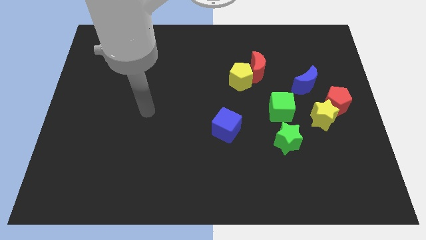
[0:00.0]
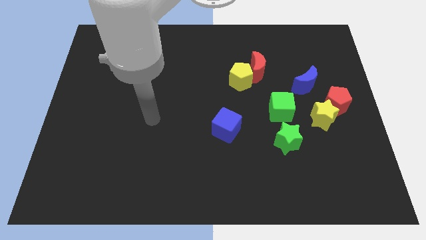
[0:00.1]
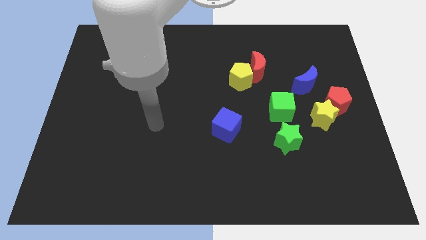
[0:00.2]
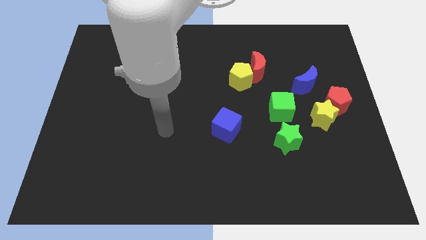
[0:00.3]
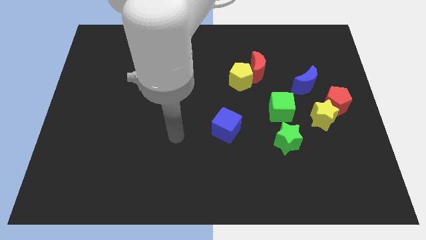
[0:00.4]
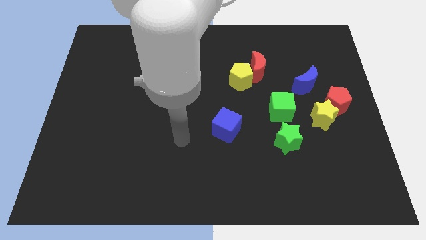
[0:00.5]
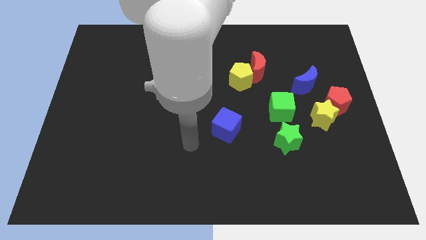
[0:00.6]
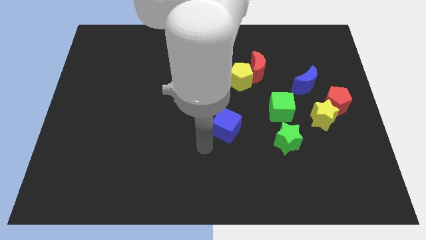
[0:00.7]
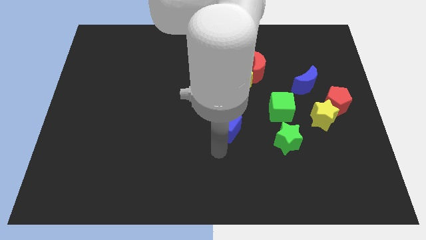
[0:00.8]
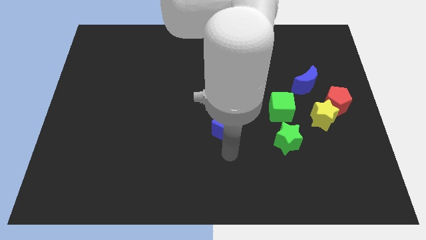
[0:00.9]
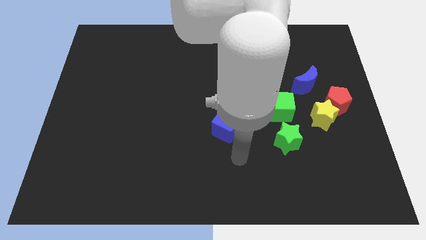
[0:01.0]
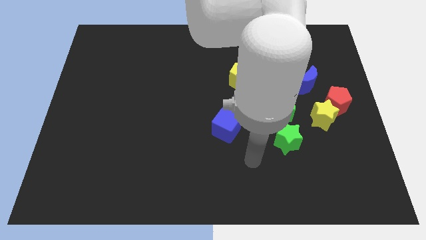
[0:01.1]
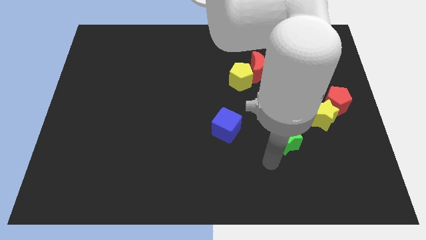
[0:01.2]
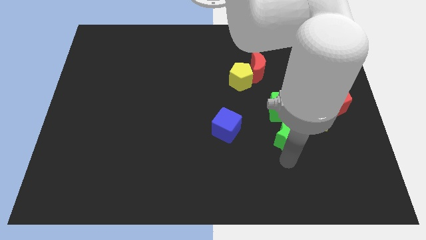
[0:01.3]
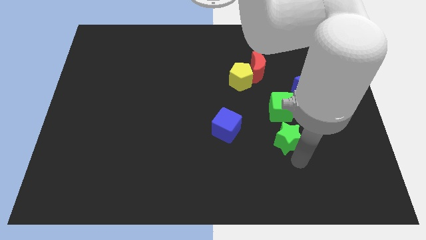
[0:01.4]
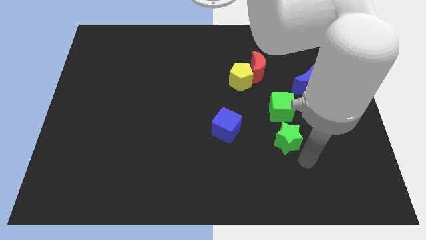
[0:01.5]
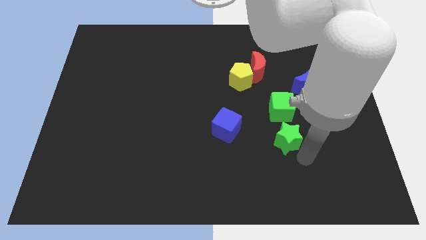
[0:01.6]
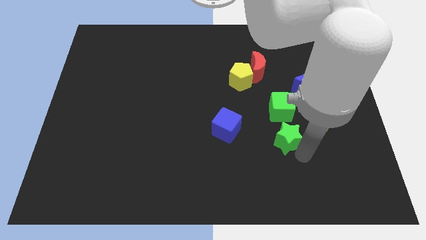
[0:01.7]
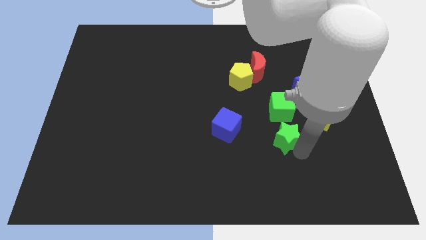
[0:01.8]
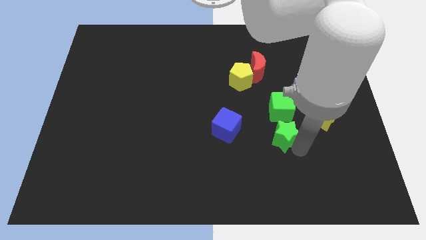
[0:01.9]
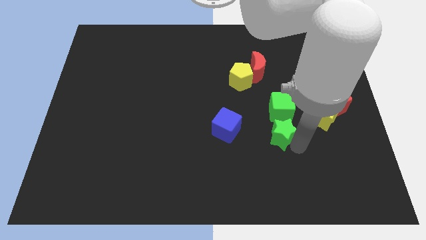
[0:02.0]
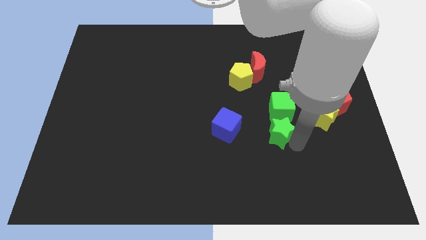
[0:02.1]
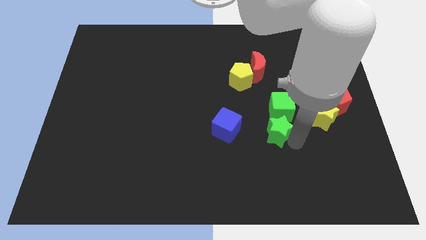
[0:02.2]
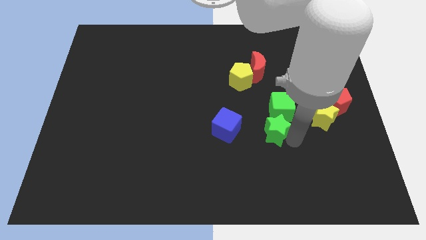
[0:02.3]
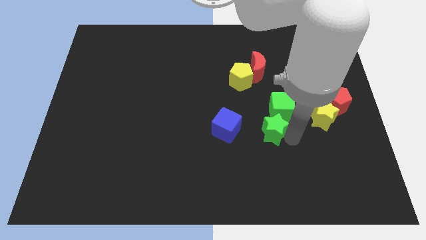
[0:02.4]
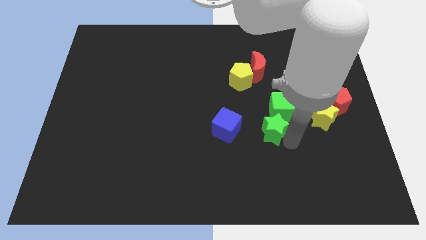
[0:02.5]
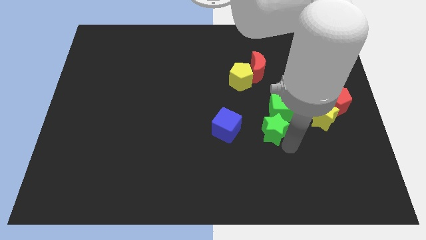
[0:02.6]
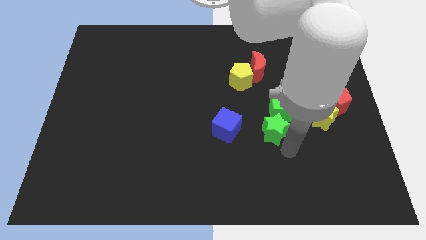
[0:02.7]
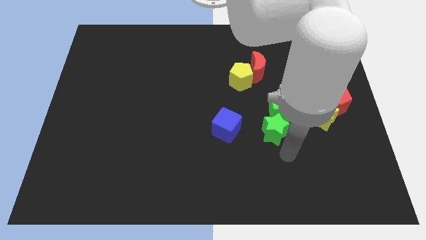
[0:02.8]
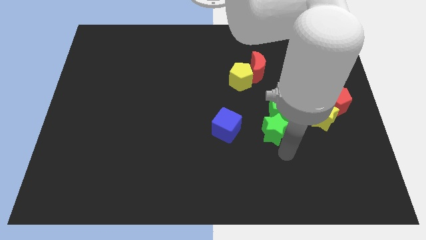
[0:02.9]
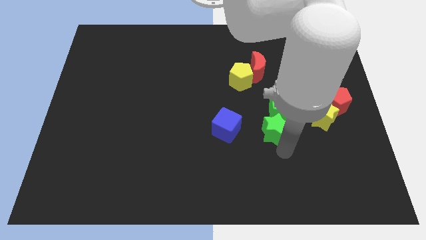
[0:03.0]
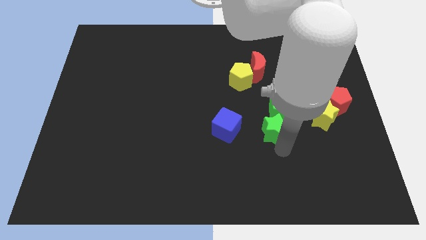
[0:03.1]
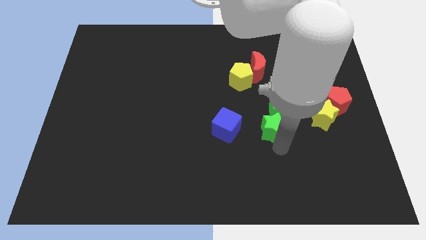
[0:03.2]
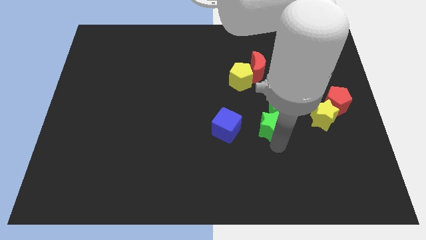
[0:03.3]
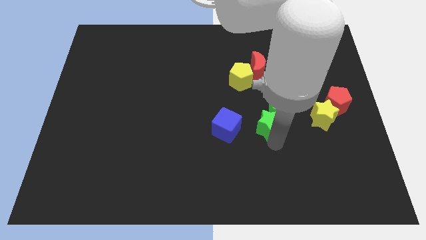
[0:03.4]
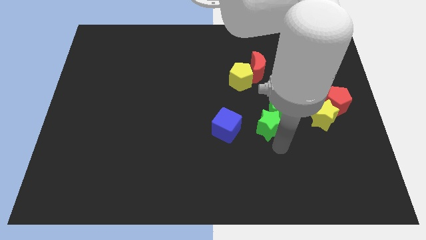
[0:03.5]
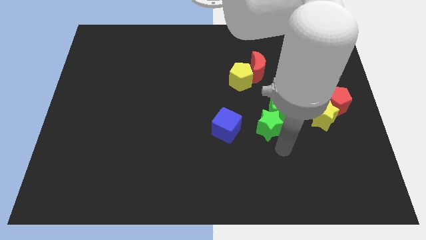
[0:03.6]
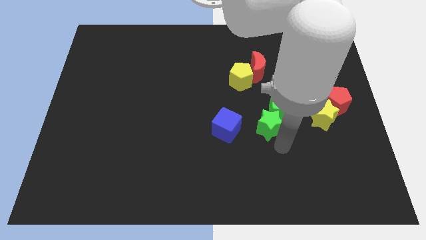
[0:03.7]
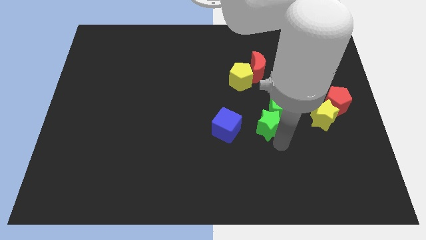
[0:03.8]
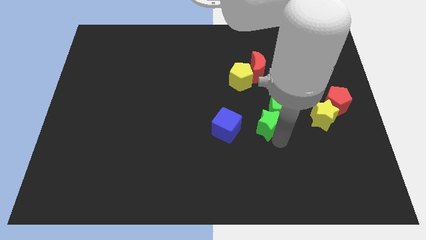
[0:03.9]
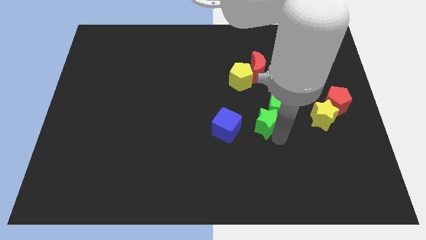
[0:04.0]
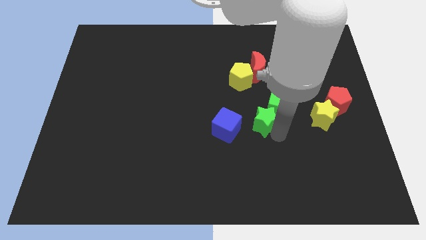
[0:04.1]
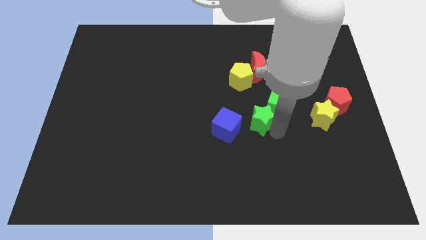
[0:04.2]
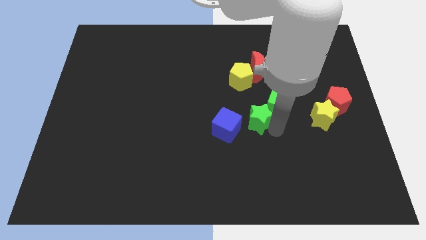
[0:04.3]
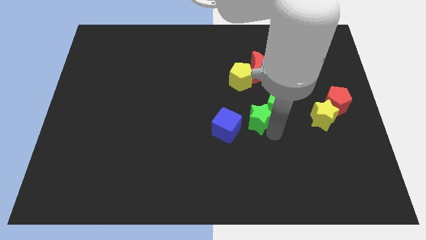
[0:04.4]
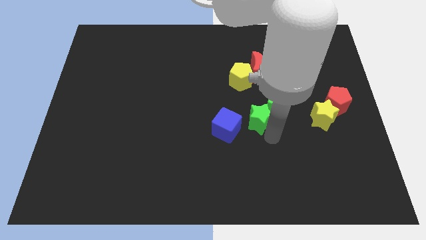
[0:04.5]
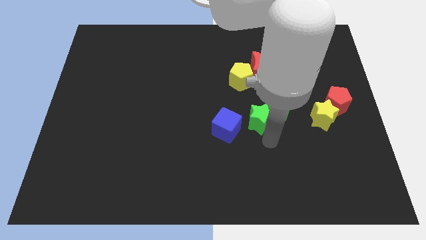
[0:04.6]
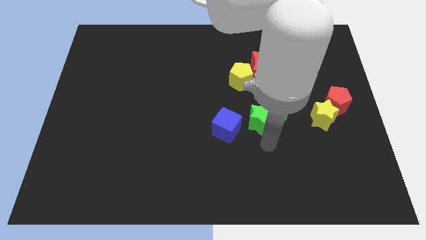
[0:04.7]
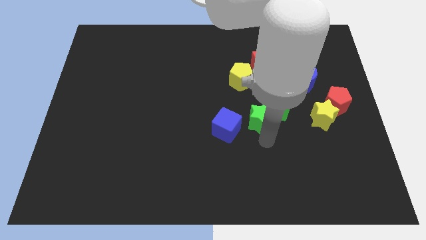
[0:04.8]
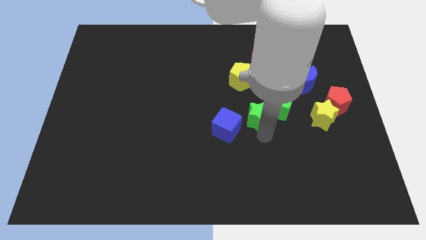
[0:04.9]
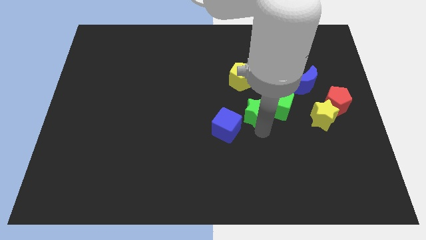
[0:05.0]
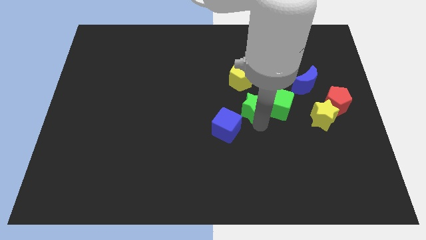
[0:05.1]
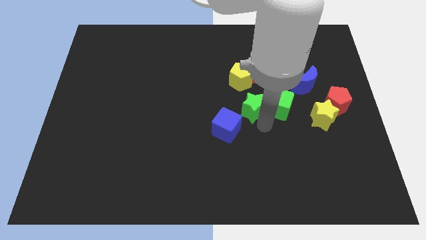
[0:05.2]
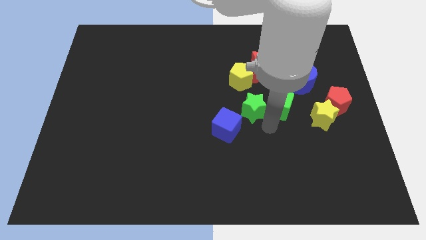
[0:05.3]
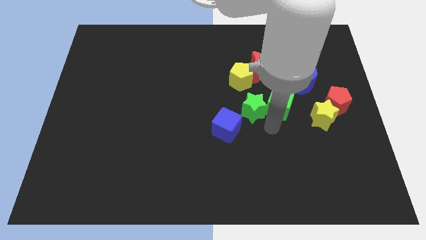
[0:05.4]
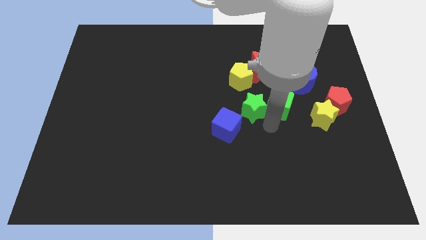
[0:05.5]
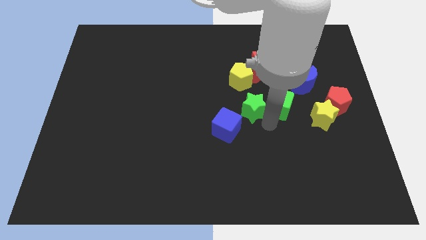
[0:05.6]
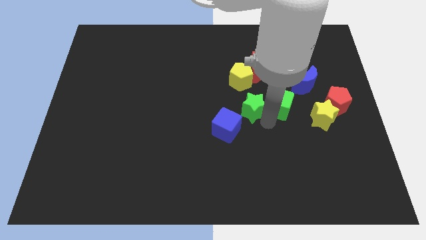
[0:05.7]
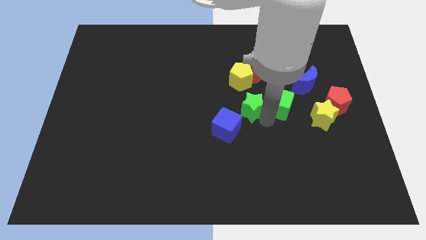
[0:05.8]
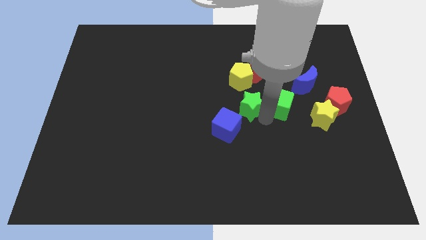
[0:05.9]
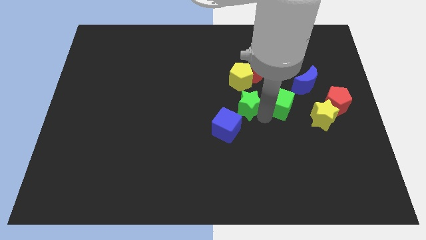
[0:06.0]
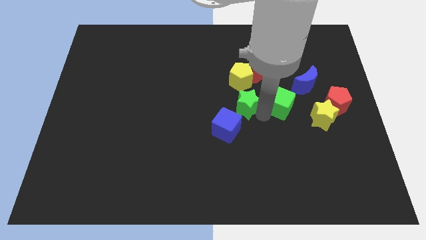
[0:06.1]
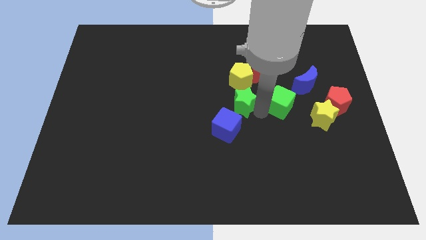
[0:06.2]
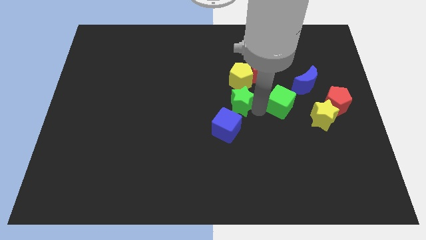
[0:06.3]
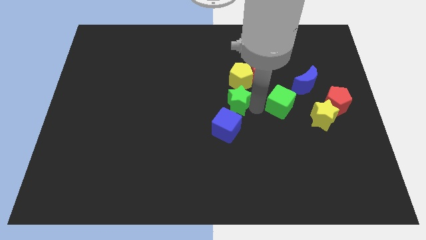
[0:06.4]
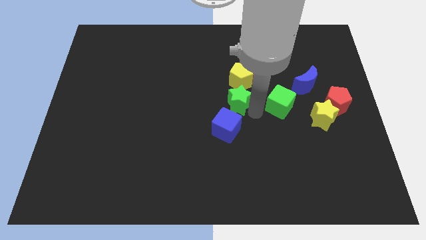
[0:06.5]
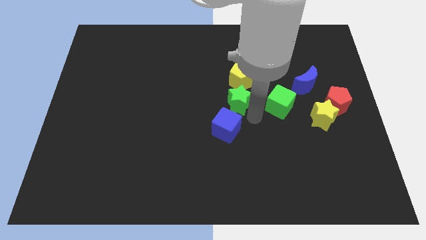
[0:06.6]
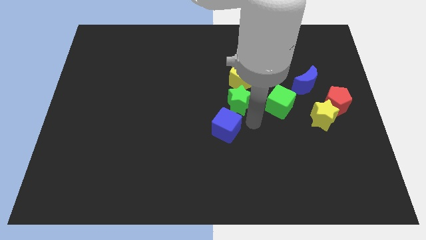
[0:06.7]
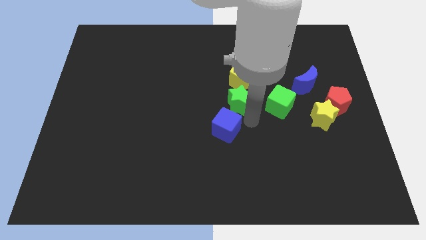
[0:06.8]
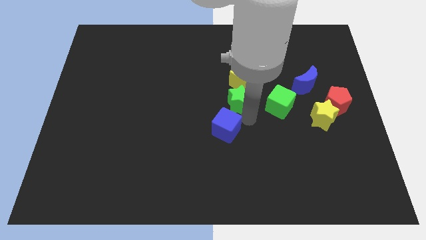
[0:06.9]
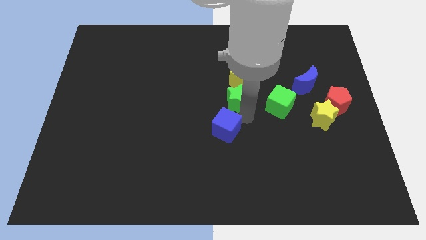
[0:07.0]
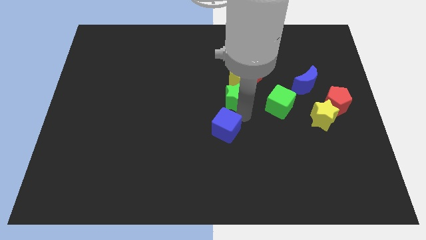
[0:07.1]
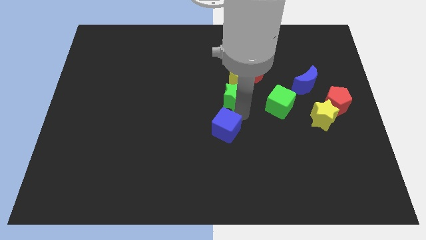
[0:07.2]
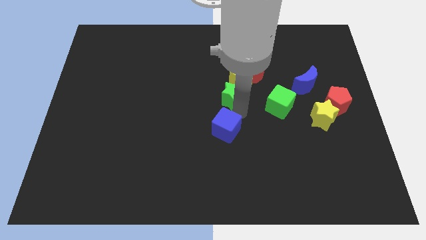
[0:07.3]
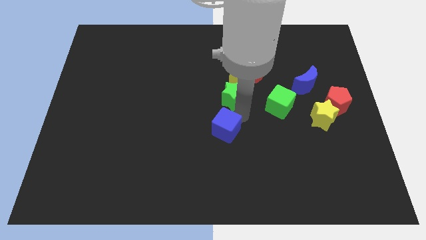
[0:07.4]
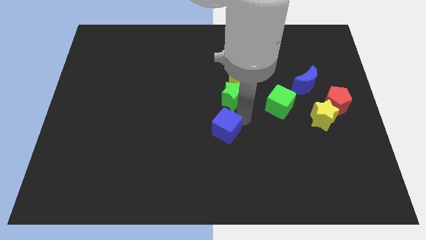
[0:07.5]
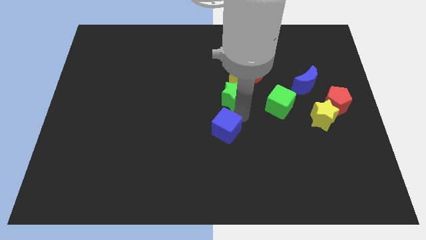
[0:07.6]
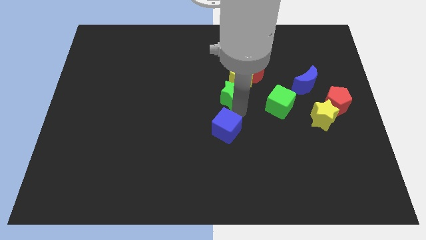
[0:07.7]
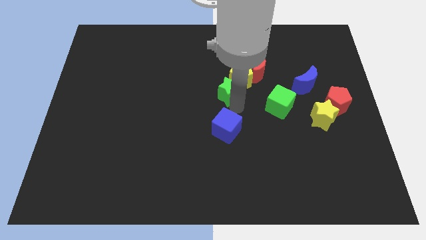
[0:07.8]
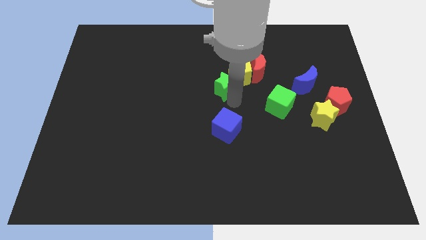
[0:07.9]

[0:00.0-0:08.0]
slide the green star diagonally upwards and left

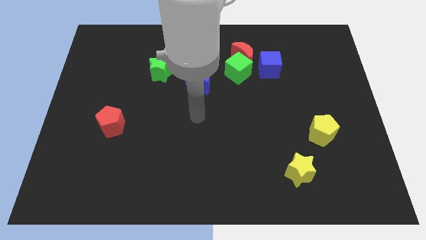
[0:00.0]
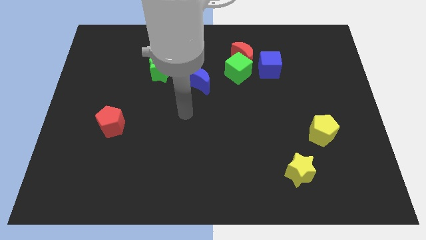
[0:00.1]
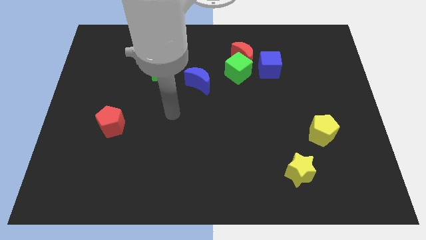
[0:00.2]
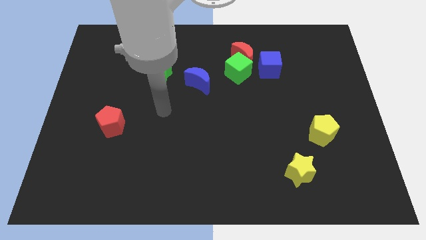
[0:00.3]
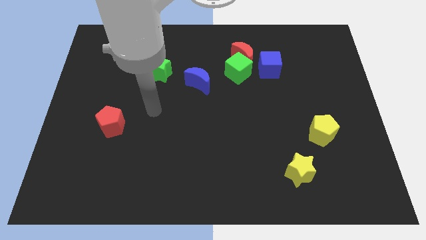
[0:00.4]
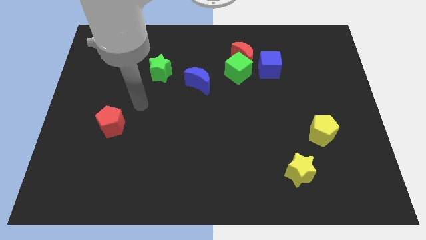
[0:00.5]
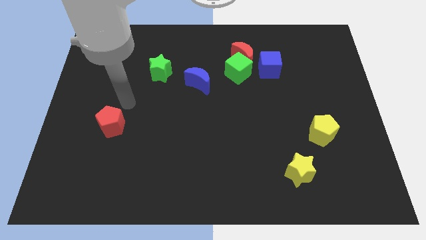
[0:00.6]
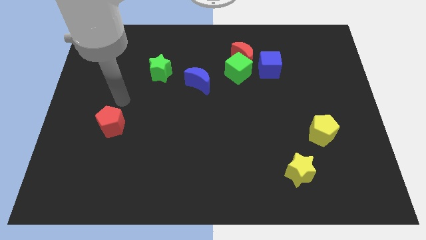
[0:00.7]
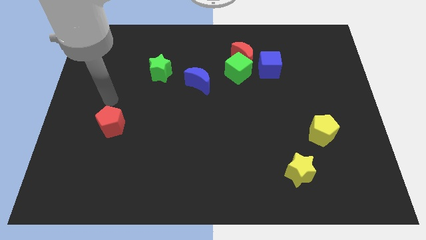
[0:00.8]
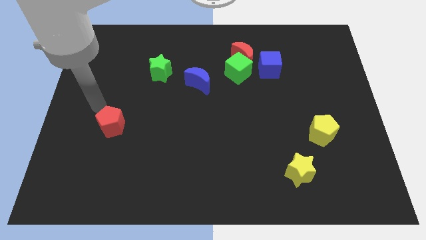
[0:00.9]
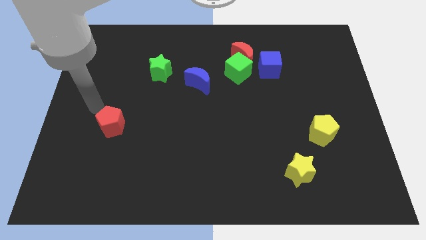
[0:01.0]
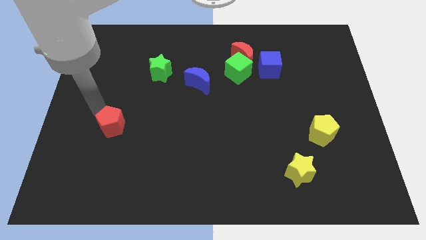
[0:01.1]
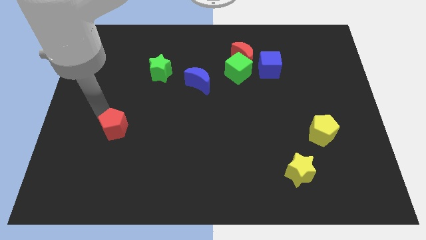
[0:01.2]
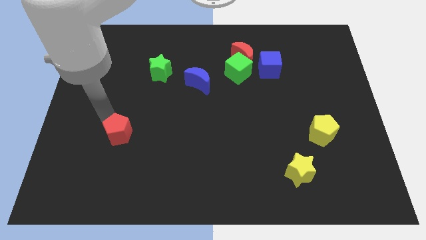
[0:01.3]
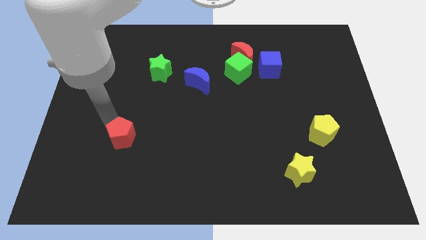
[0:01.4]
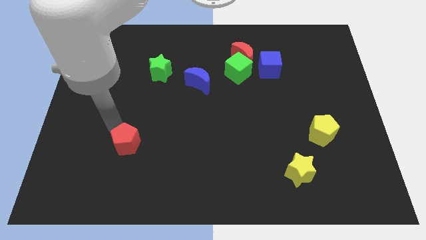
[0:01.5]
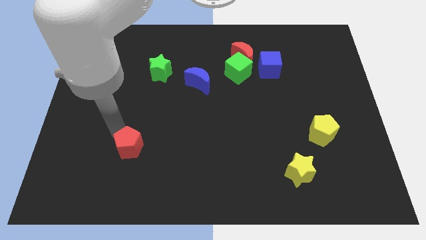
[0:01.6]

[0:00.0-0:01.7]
push the red pentagon diagonally down and to the right a bit
